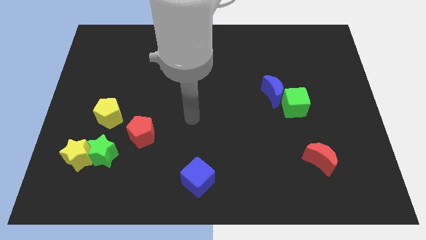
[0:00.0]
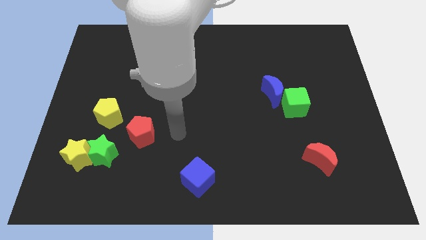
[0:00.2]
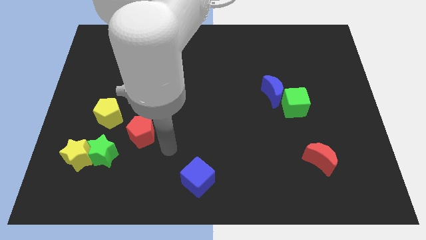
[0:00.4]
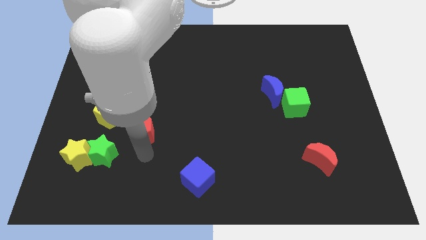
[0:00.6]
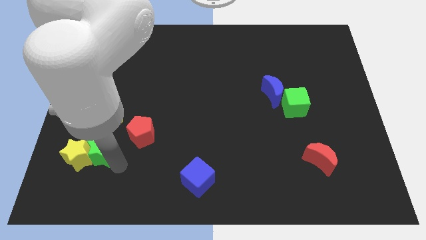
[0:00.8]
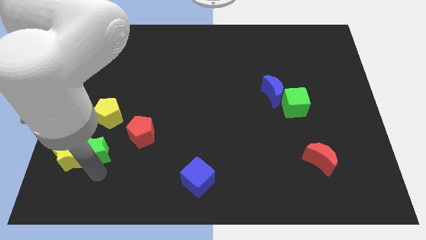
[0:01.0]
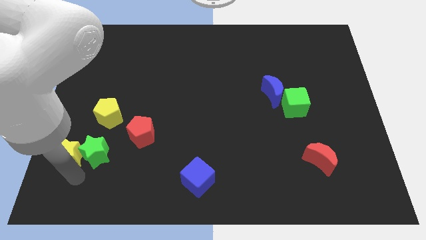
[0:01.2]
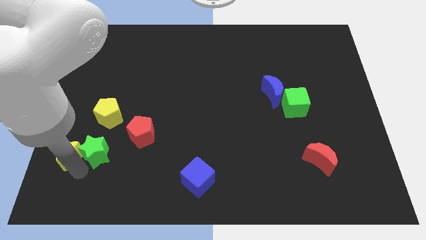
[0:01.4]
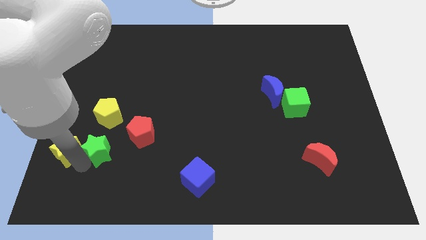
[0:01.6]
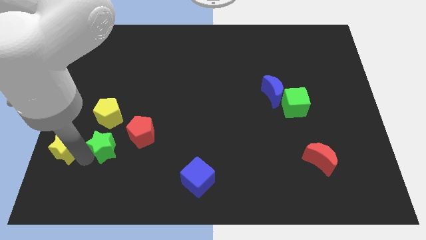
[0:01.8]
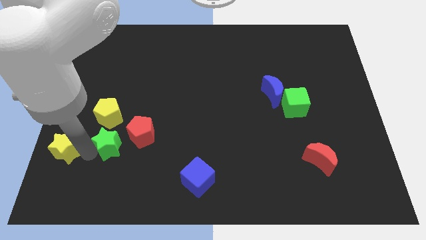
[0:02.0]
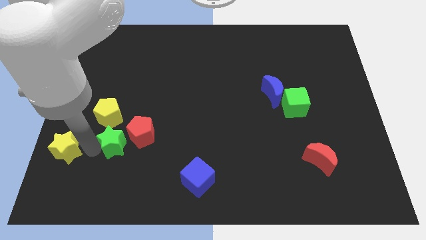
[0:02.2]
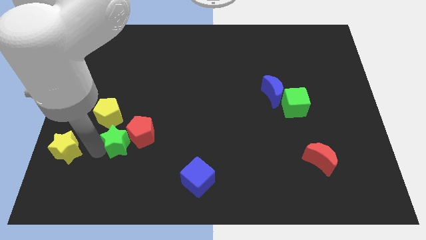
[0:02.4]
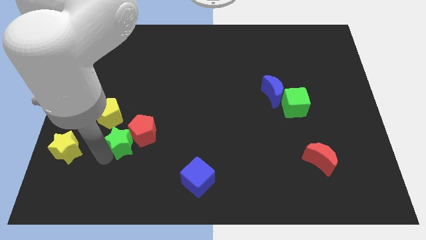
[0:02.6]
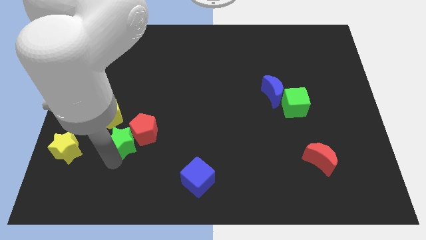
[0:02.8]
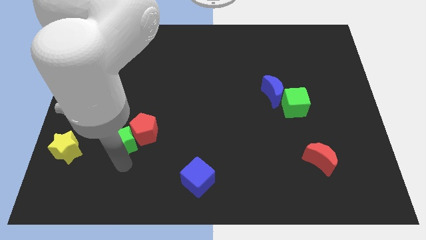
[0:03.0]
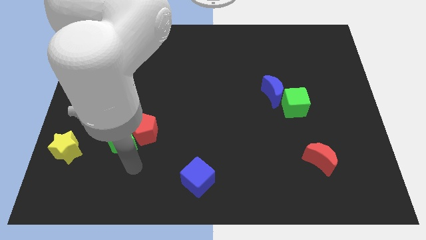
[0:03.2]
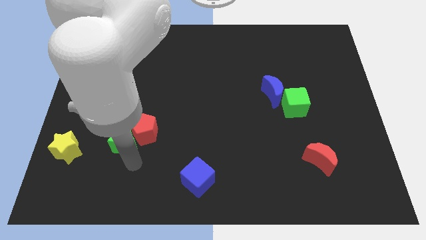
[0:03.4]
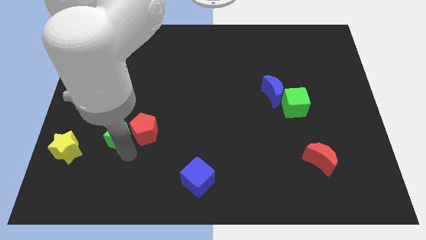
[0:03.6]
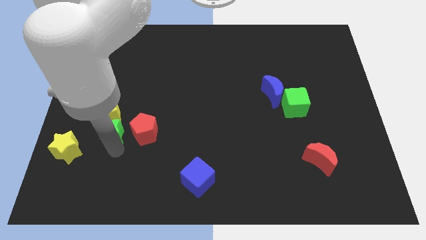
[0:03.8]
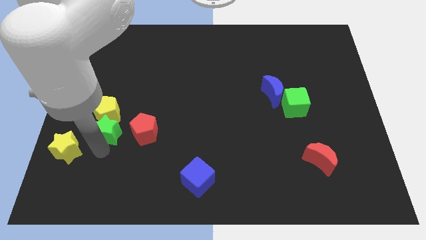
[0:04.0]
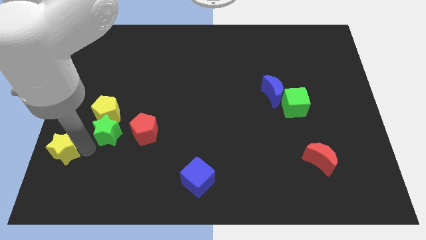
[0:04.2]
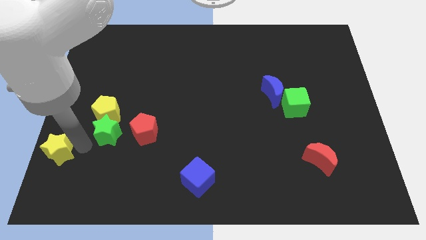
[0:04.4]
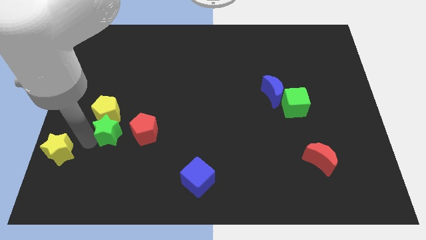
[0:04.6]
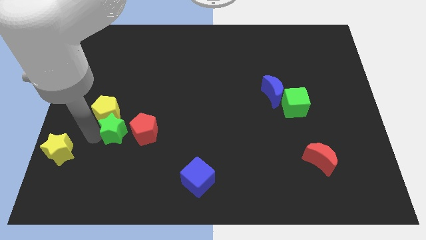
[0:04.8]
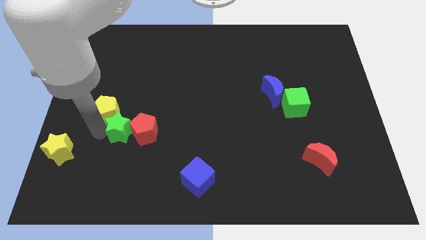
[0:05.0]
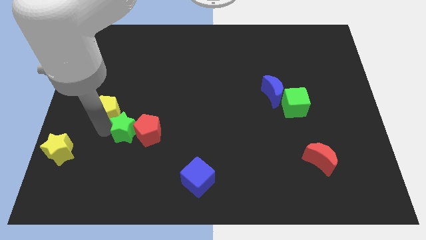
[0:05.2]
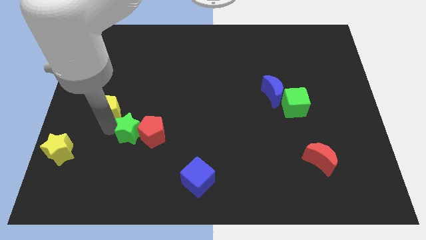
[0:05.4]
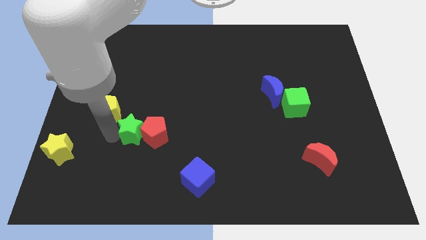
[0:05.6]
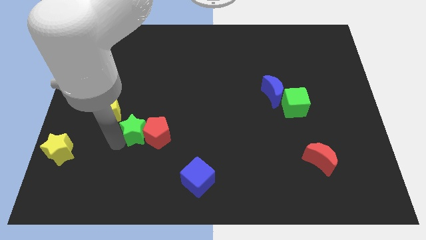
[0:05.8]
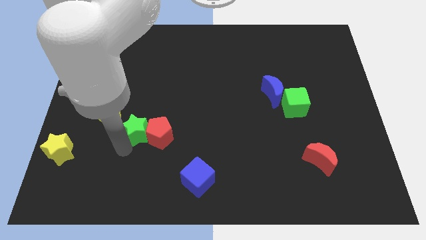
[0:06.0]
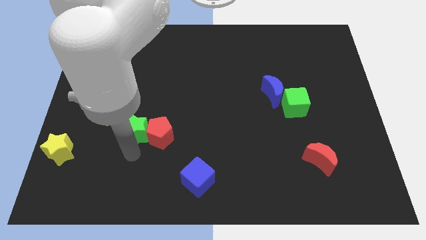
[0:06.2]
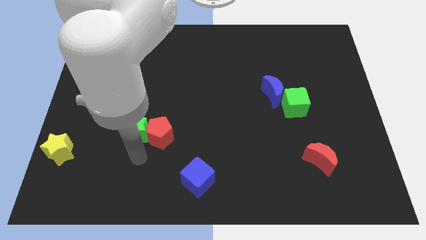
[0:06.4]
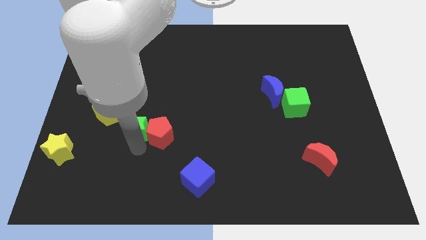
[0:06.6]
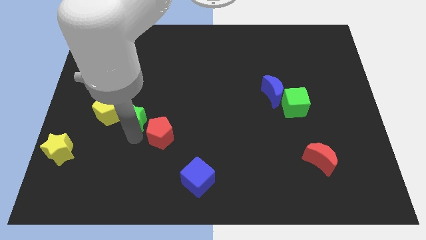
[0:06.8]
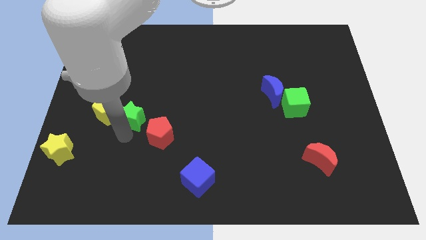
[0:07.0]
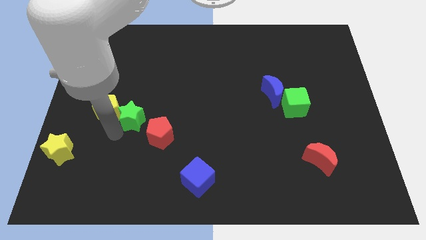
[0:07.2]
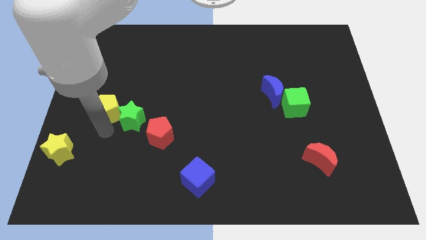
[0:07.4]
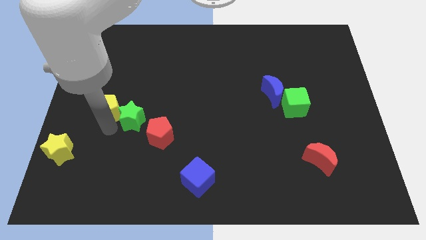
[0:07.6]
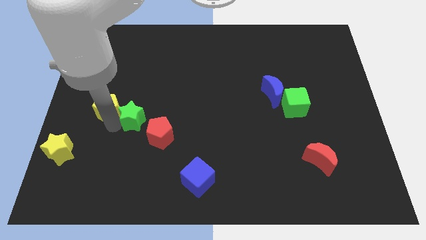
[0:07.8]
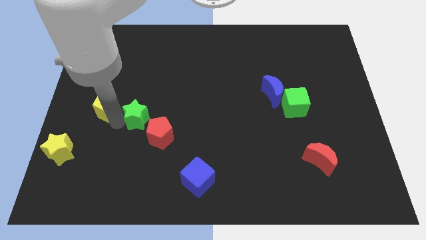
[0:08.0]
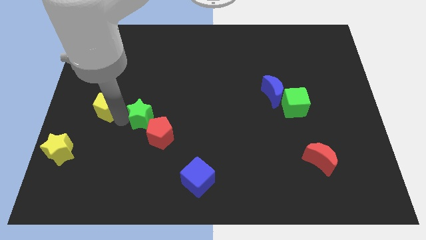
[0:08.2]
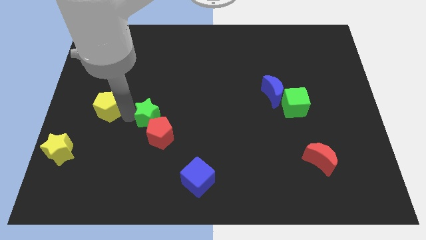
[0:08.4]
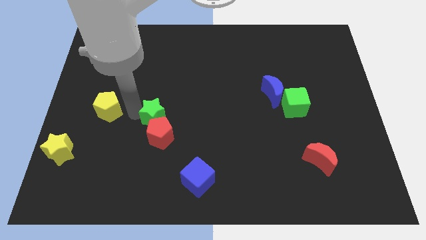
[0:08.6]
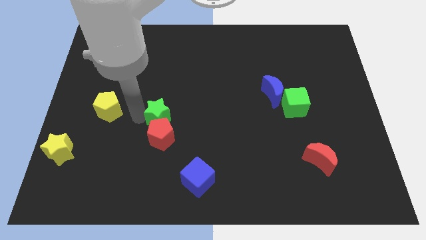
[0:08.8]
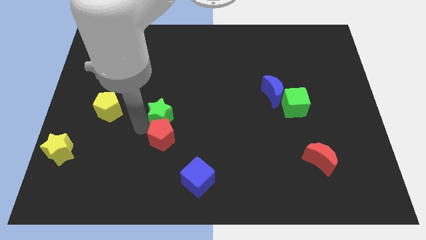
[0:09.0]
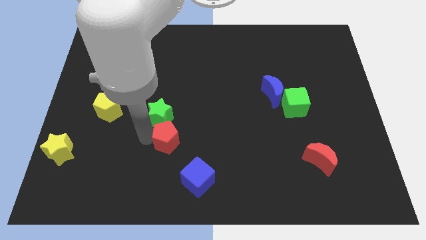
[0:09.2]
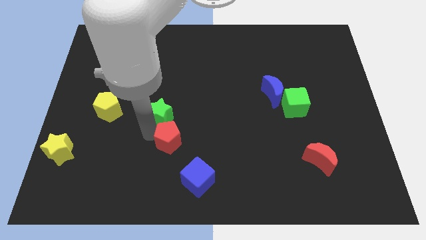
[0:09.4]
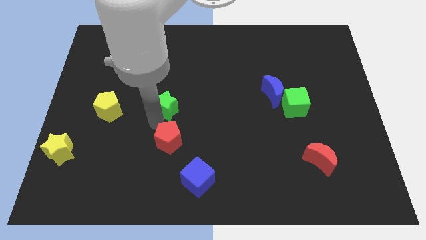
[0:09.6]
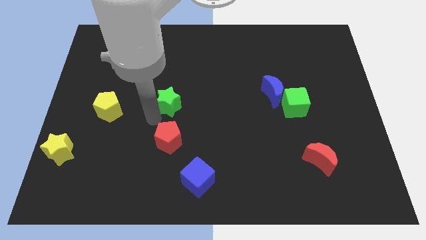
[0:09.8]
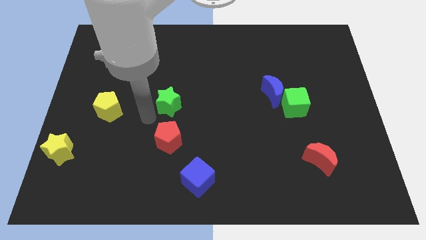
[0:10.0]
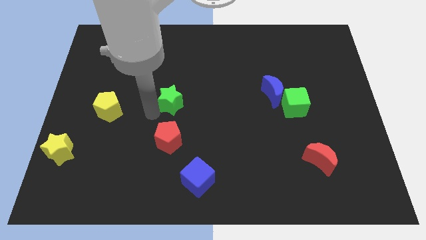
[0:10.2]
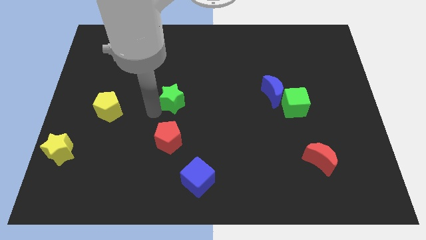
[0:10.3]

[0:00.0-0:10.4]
slide the green star upwards and to the right diagonally

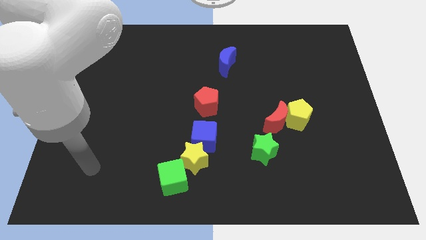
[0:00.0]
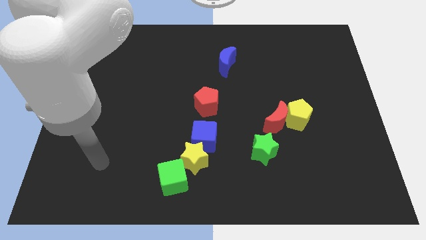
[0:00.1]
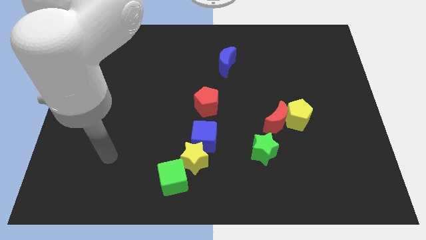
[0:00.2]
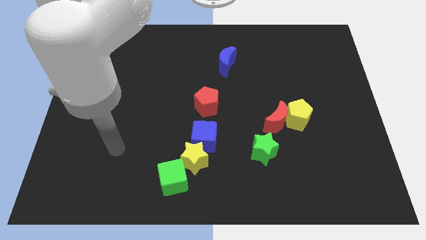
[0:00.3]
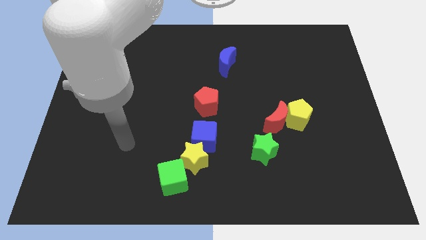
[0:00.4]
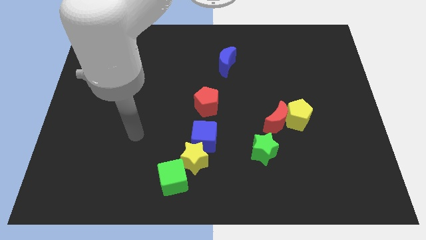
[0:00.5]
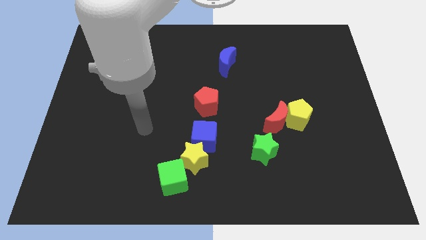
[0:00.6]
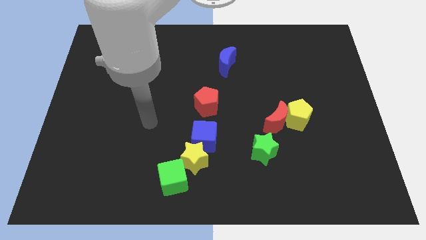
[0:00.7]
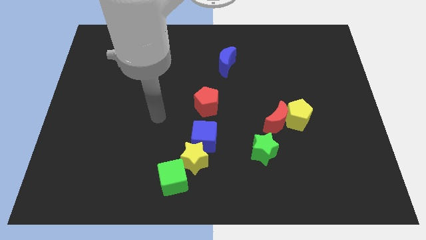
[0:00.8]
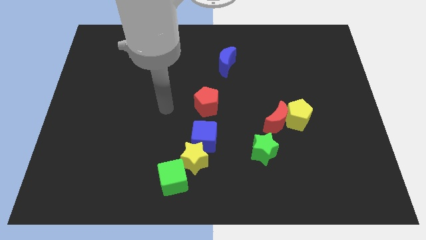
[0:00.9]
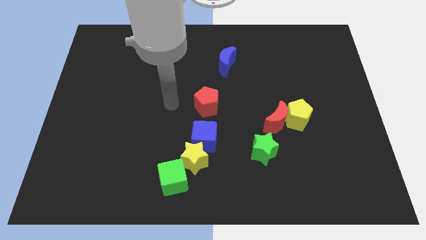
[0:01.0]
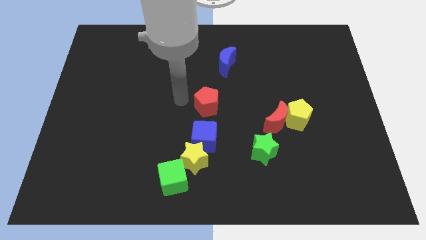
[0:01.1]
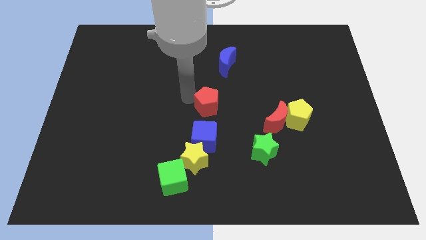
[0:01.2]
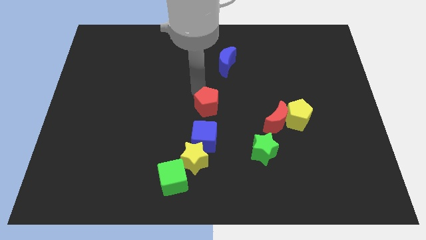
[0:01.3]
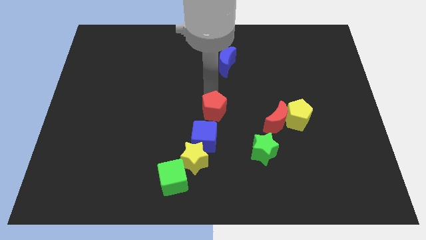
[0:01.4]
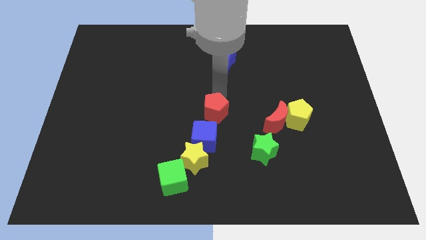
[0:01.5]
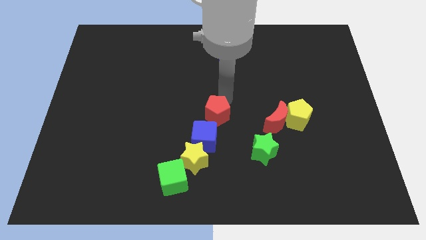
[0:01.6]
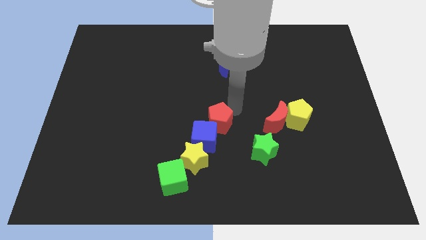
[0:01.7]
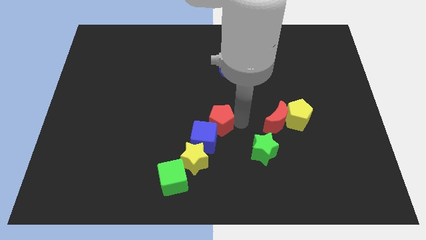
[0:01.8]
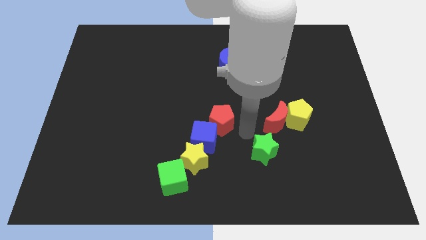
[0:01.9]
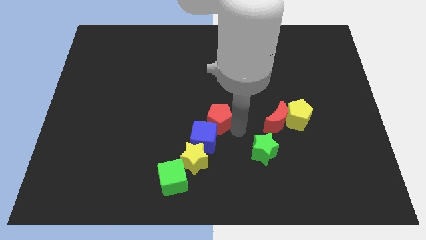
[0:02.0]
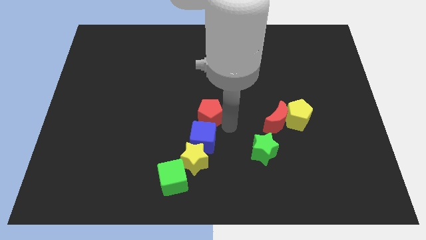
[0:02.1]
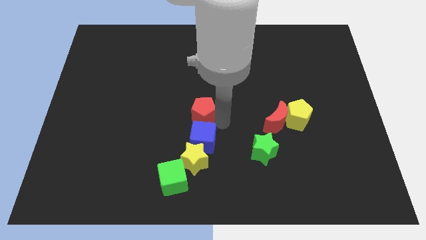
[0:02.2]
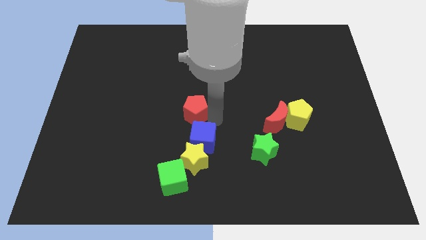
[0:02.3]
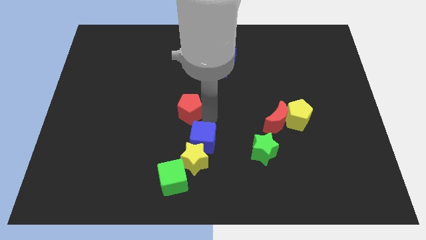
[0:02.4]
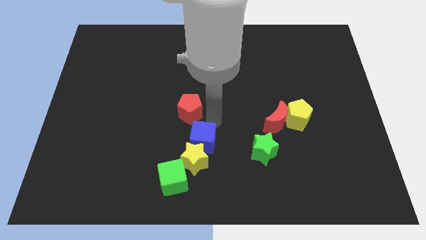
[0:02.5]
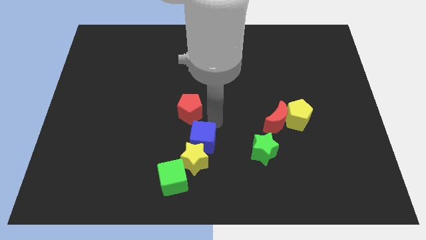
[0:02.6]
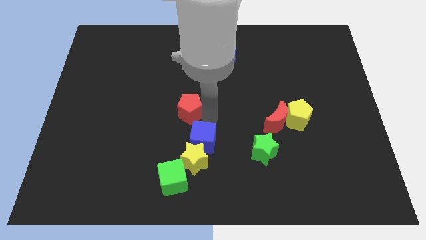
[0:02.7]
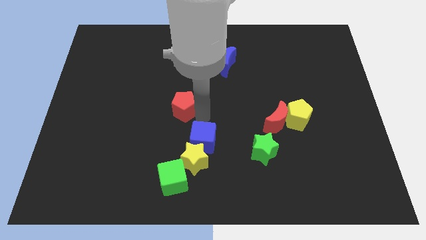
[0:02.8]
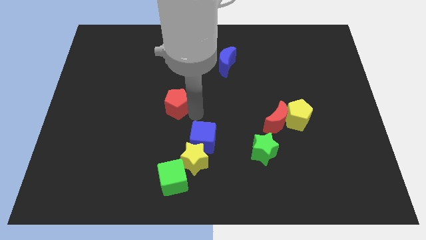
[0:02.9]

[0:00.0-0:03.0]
slide the red pentagon a bit left
